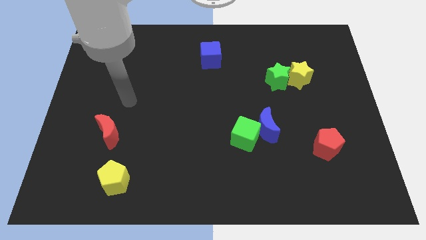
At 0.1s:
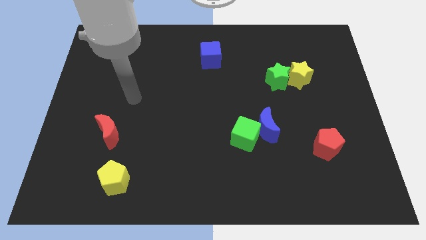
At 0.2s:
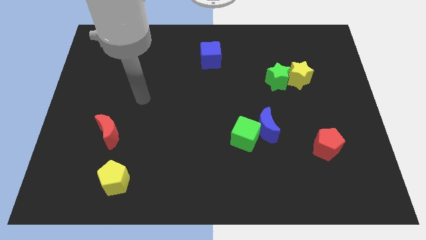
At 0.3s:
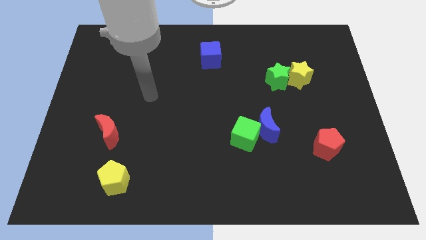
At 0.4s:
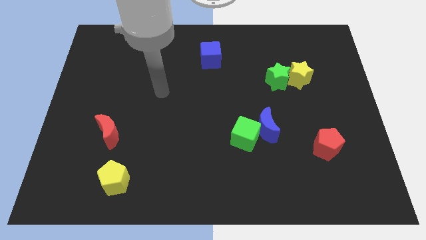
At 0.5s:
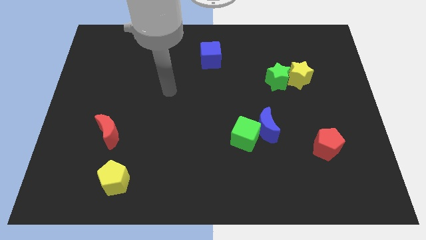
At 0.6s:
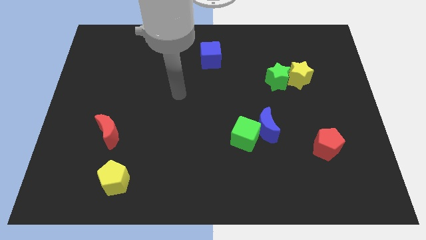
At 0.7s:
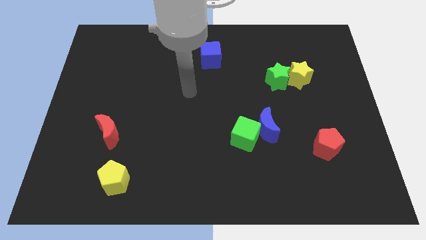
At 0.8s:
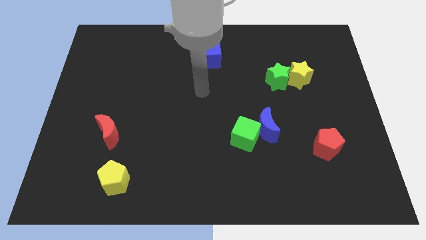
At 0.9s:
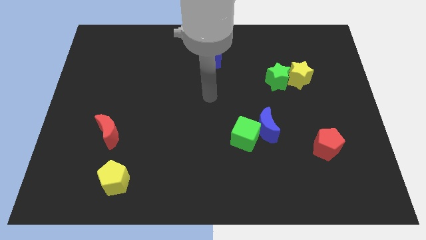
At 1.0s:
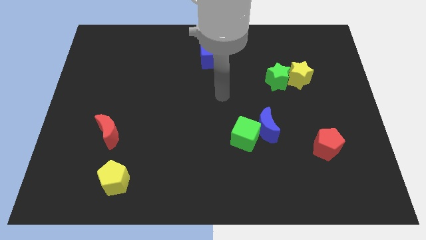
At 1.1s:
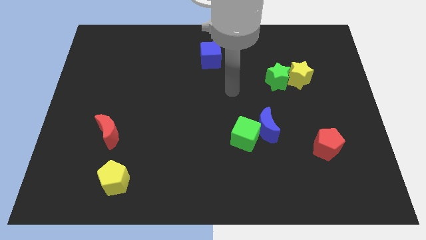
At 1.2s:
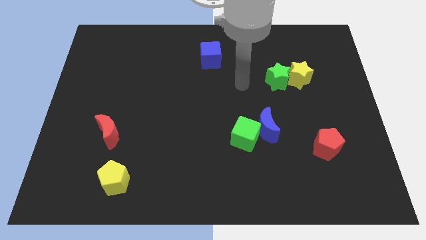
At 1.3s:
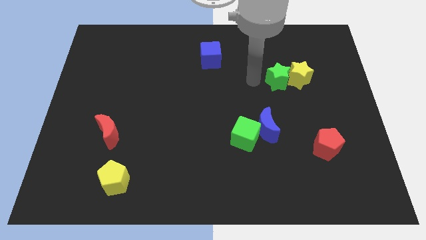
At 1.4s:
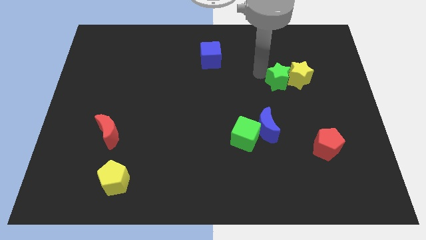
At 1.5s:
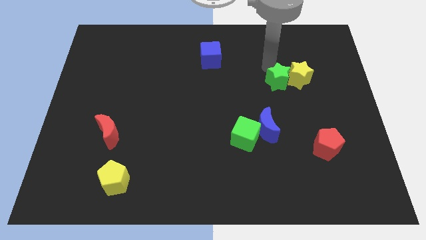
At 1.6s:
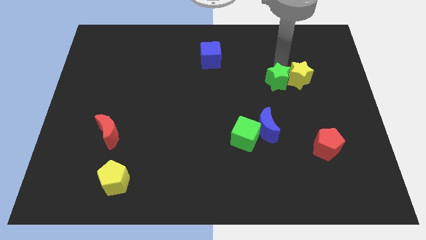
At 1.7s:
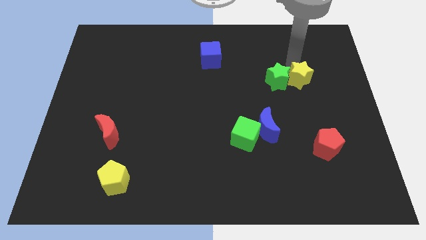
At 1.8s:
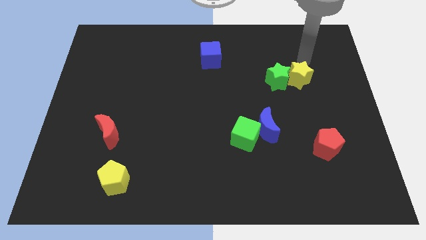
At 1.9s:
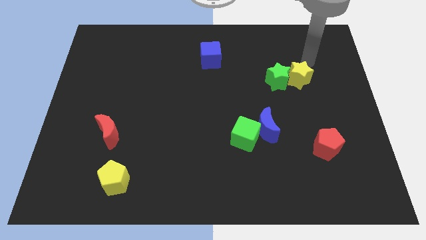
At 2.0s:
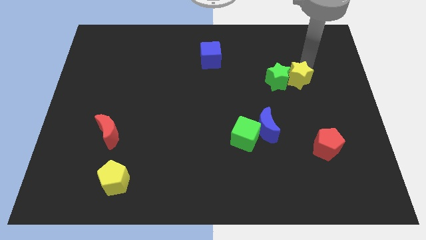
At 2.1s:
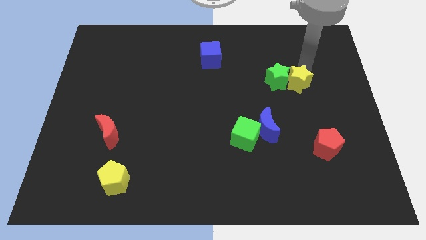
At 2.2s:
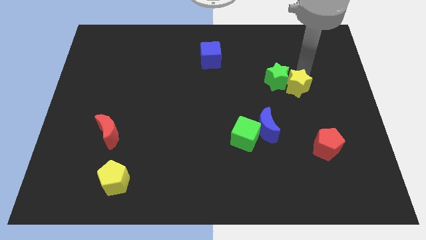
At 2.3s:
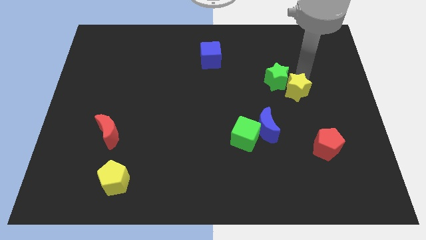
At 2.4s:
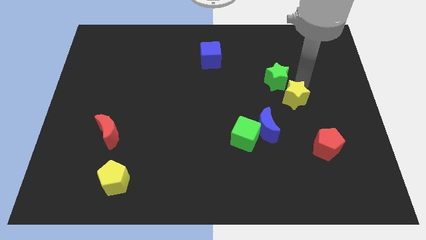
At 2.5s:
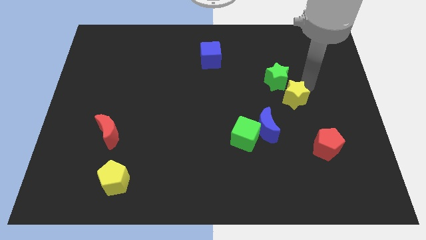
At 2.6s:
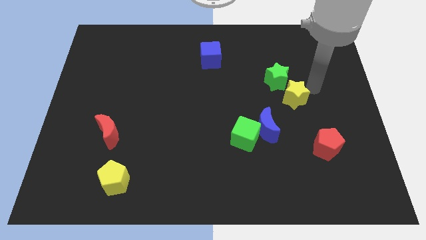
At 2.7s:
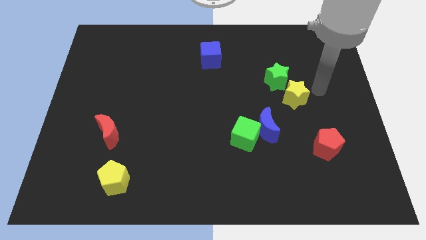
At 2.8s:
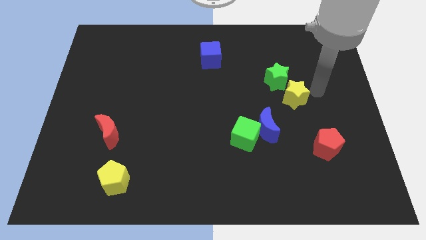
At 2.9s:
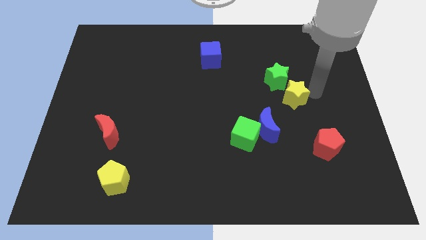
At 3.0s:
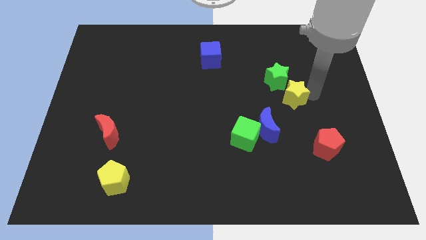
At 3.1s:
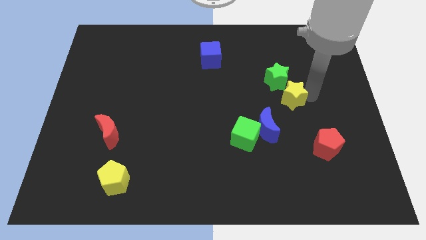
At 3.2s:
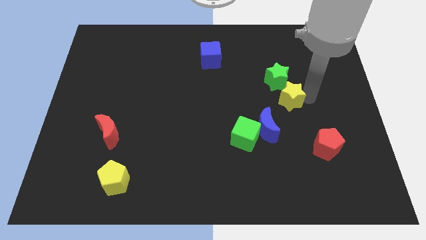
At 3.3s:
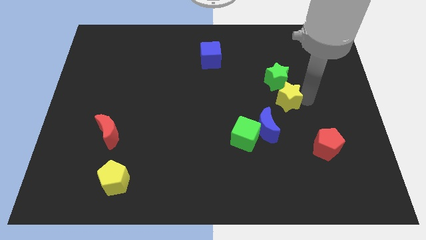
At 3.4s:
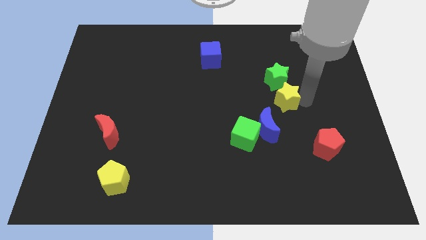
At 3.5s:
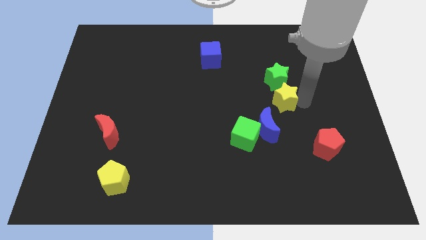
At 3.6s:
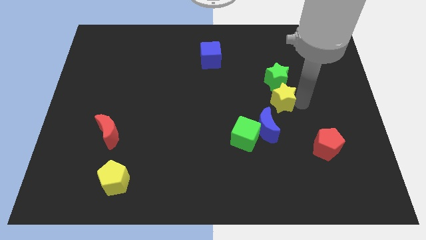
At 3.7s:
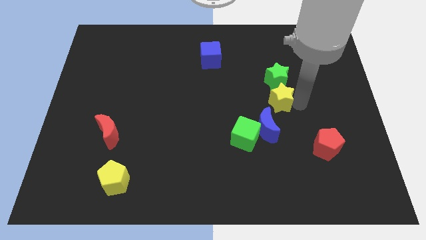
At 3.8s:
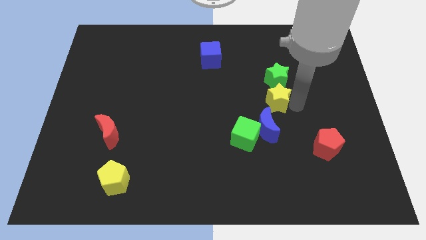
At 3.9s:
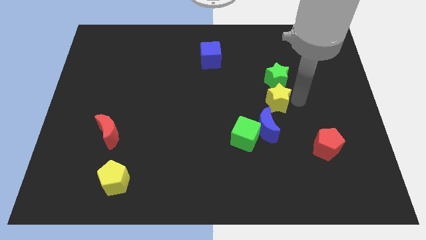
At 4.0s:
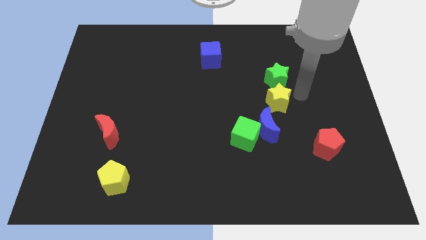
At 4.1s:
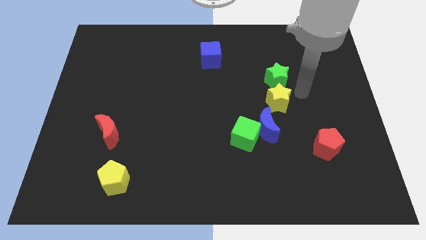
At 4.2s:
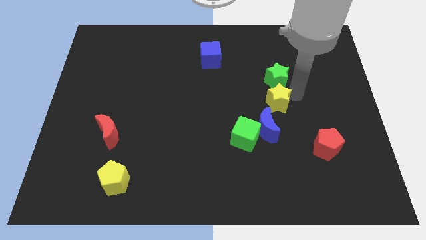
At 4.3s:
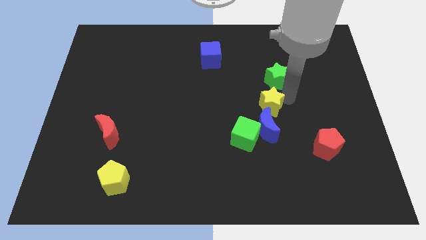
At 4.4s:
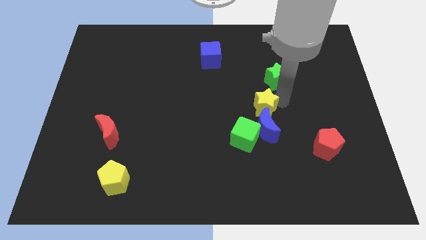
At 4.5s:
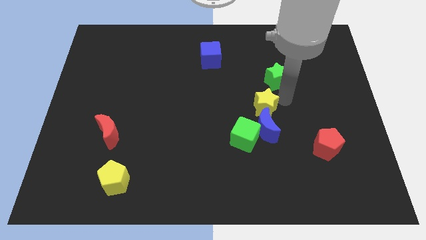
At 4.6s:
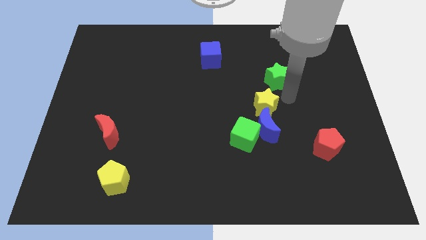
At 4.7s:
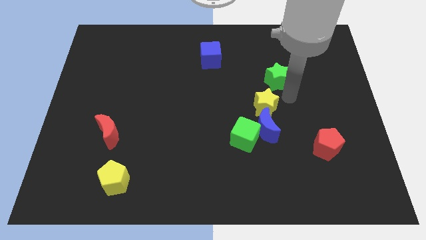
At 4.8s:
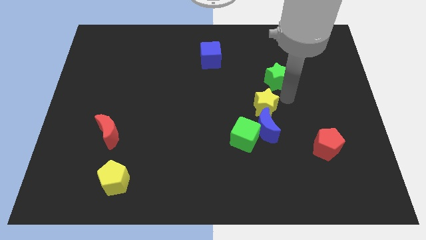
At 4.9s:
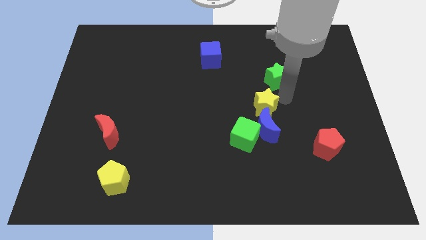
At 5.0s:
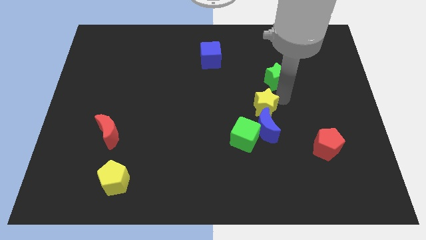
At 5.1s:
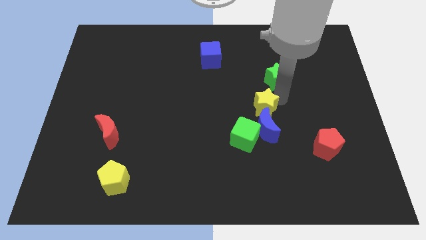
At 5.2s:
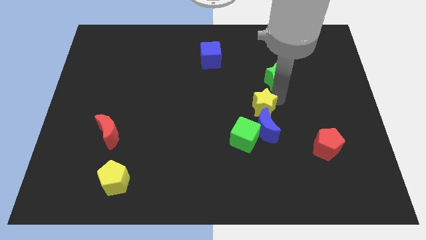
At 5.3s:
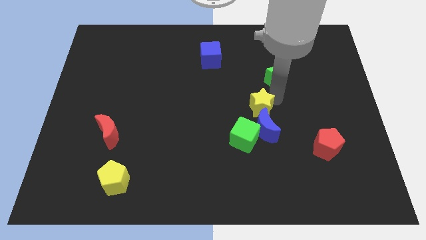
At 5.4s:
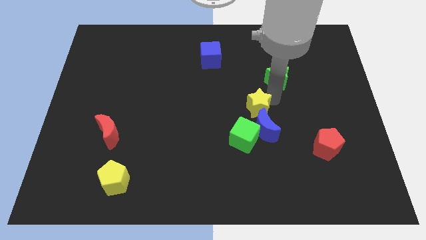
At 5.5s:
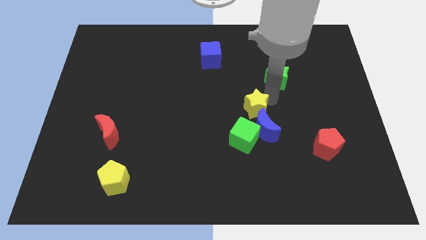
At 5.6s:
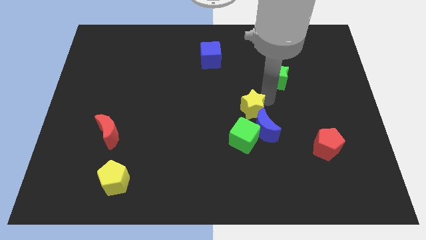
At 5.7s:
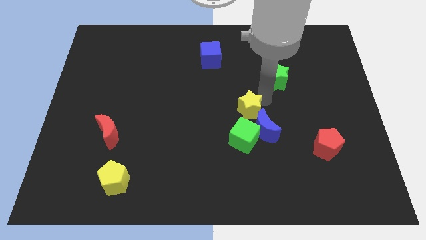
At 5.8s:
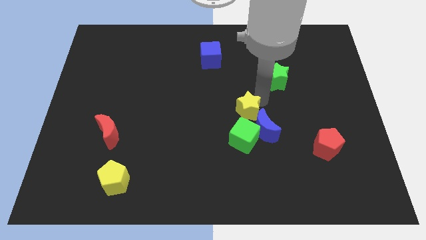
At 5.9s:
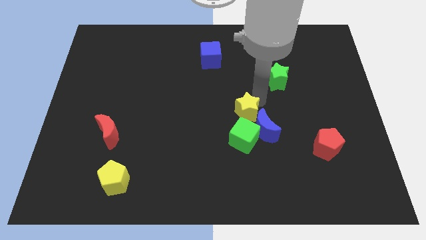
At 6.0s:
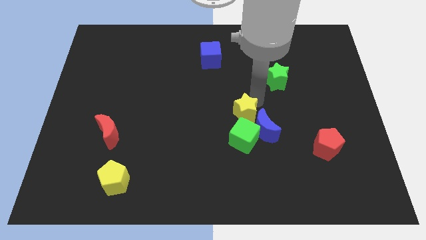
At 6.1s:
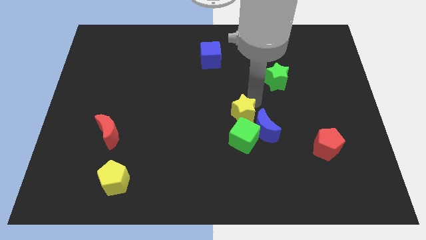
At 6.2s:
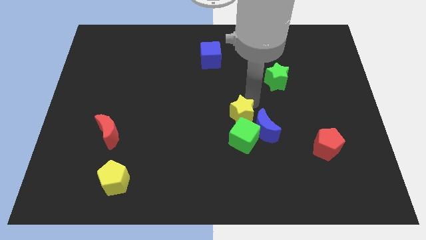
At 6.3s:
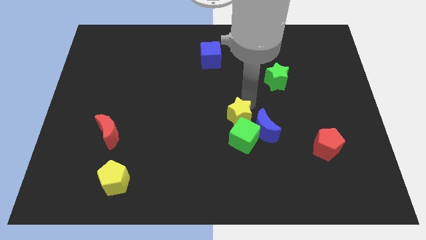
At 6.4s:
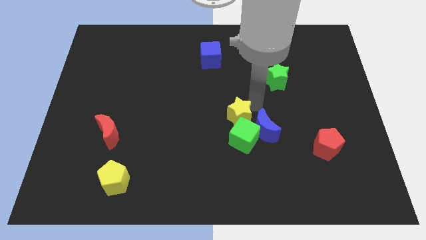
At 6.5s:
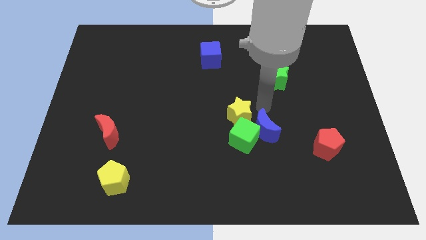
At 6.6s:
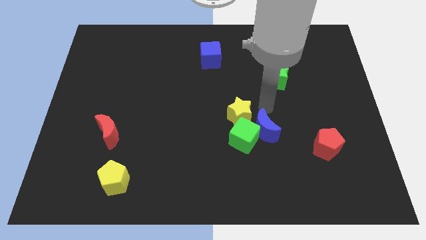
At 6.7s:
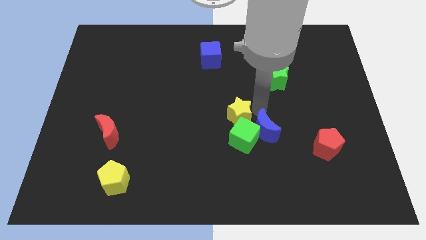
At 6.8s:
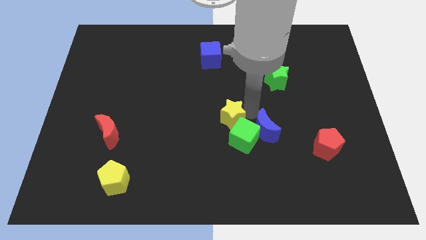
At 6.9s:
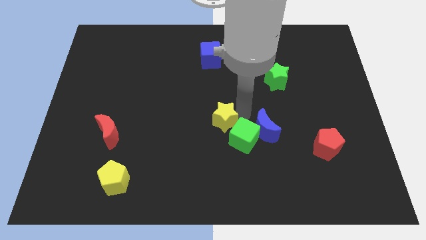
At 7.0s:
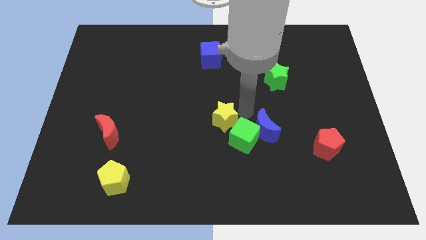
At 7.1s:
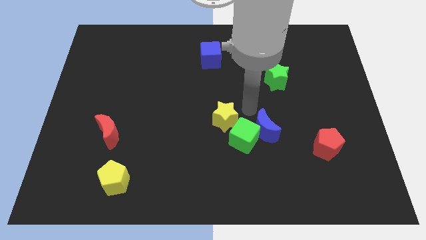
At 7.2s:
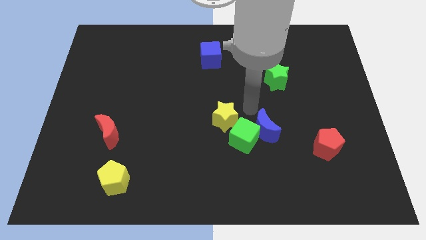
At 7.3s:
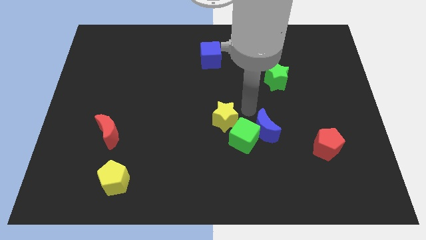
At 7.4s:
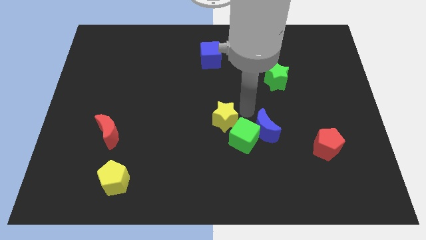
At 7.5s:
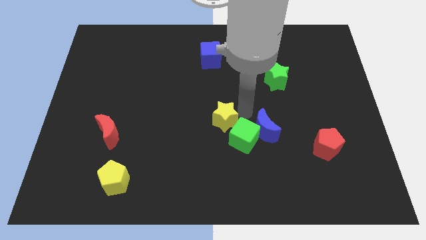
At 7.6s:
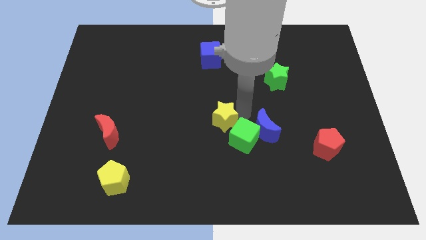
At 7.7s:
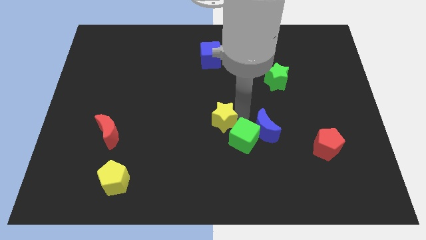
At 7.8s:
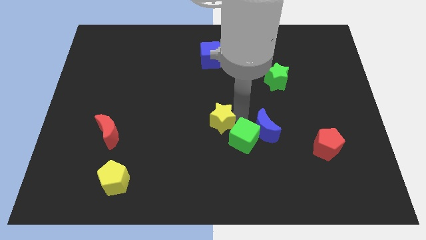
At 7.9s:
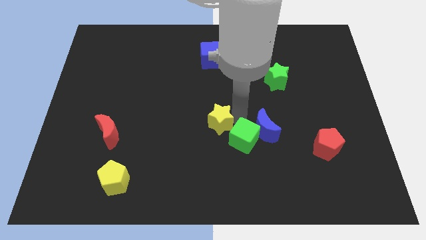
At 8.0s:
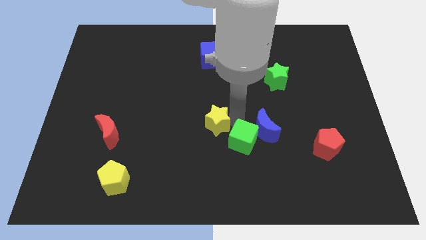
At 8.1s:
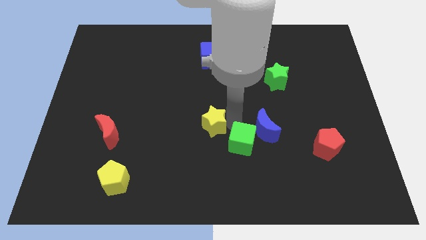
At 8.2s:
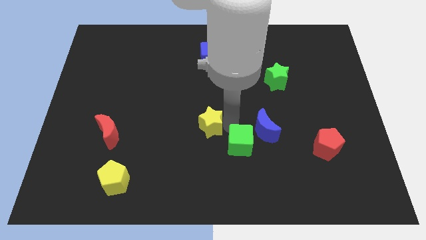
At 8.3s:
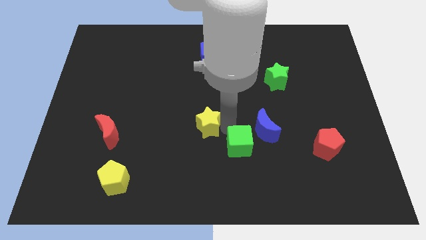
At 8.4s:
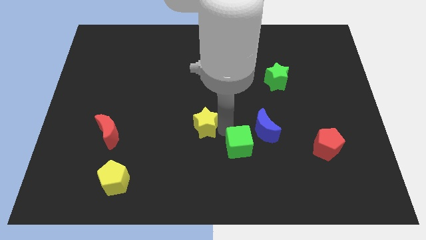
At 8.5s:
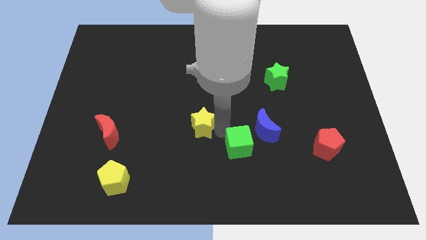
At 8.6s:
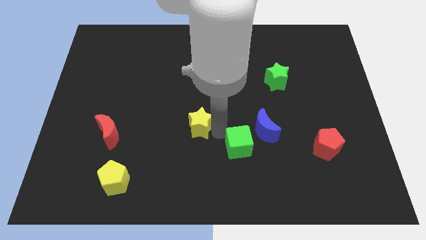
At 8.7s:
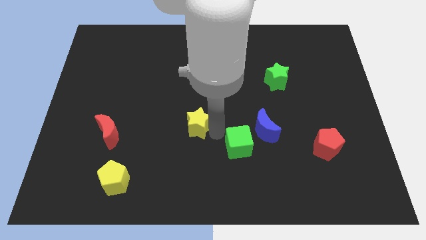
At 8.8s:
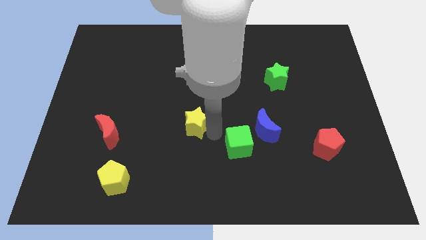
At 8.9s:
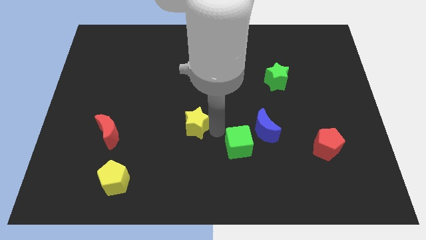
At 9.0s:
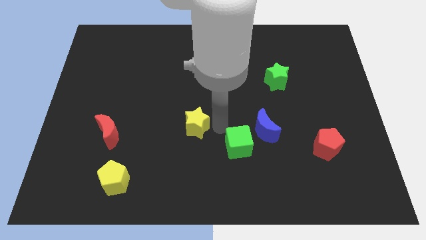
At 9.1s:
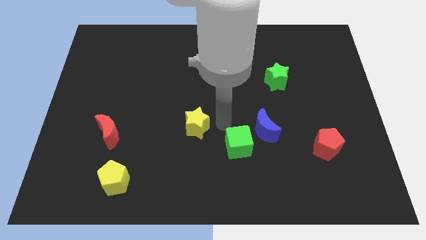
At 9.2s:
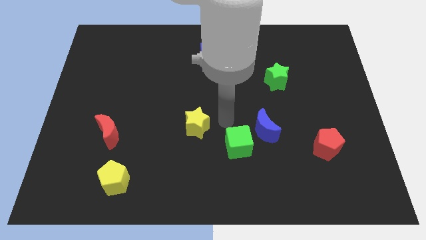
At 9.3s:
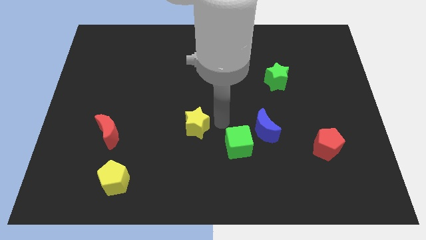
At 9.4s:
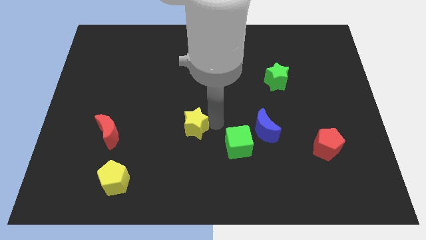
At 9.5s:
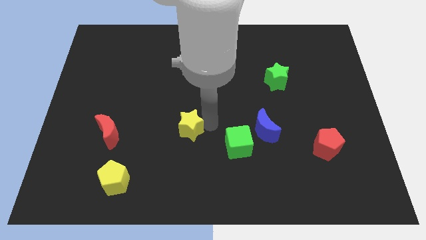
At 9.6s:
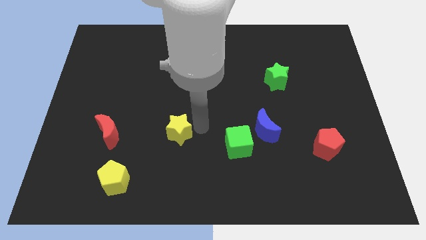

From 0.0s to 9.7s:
move the yellow star right of the red moon
